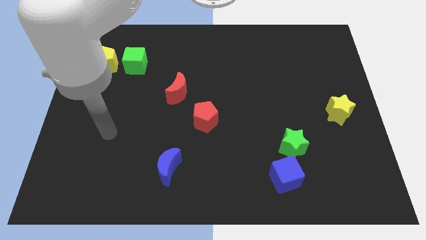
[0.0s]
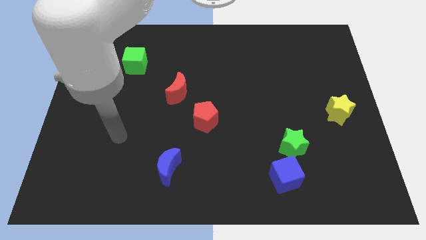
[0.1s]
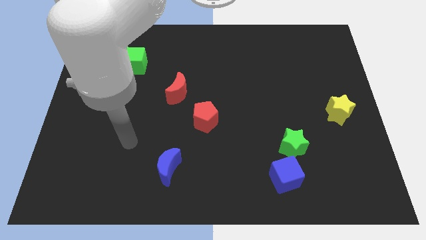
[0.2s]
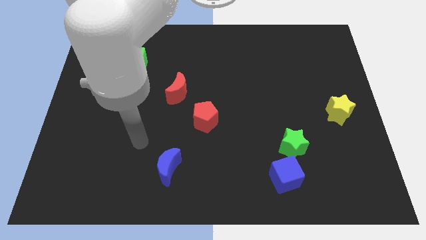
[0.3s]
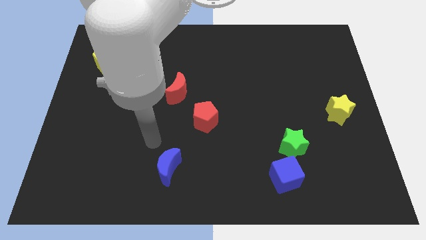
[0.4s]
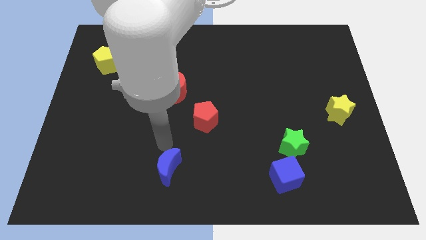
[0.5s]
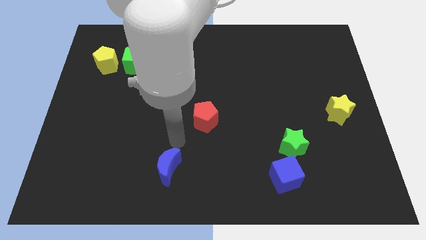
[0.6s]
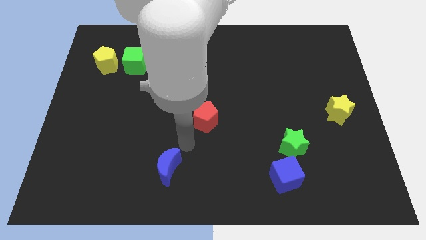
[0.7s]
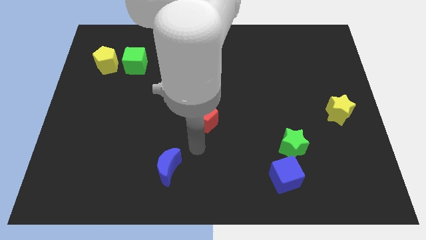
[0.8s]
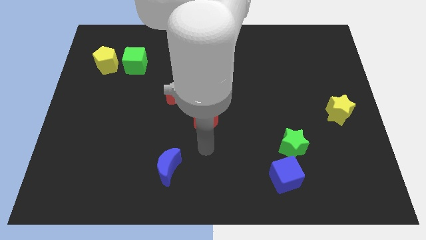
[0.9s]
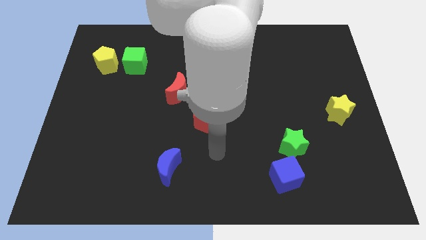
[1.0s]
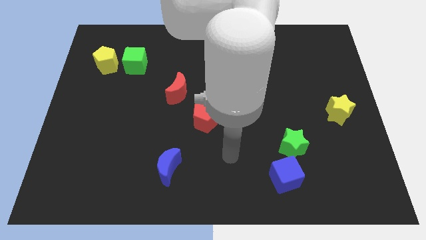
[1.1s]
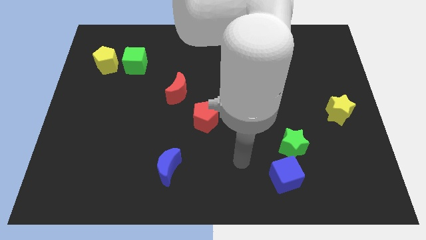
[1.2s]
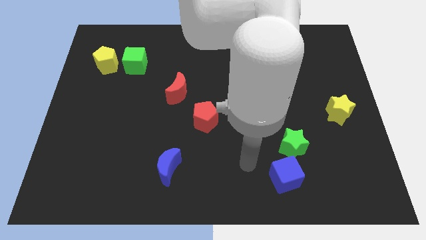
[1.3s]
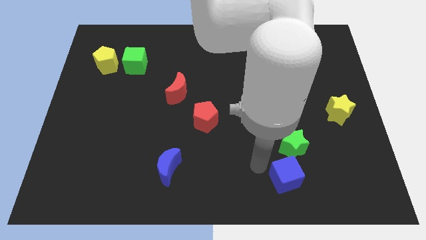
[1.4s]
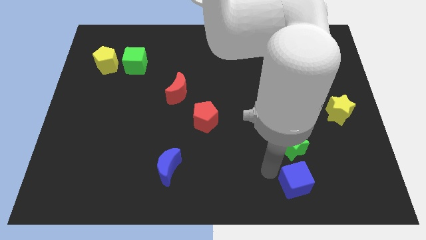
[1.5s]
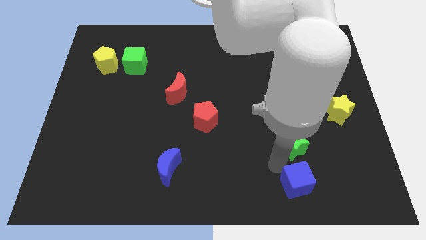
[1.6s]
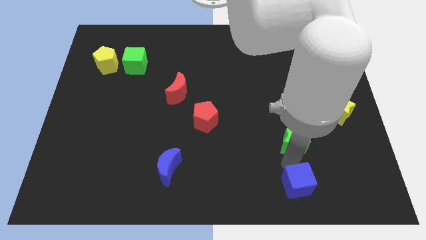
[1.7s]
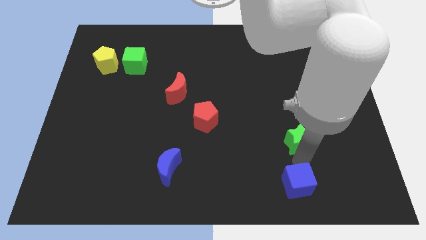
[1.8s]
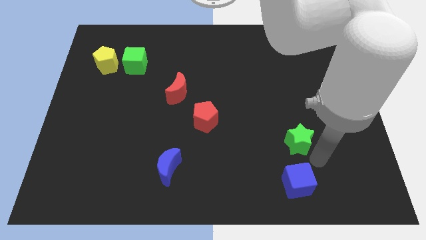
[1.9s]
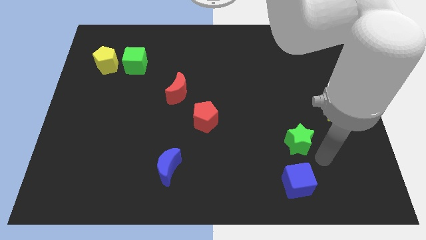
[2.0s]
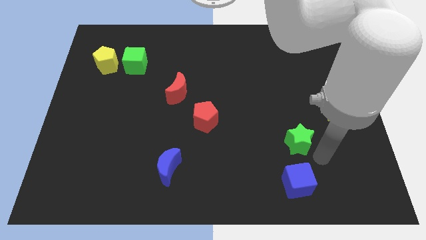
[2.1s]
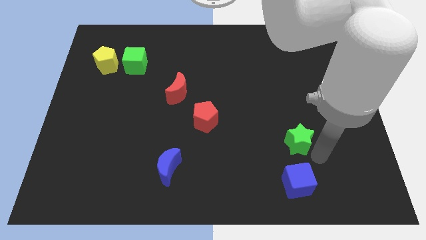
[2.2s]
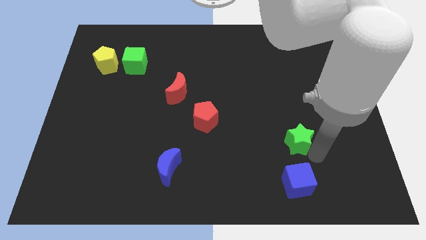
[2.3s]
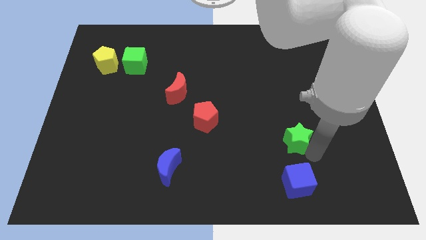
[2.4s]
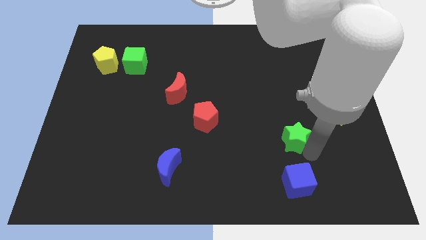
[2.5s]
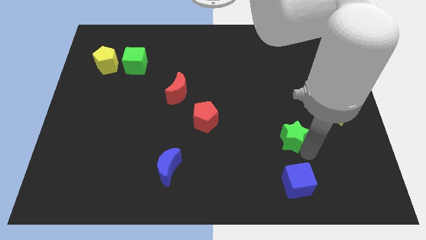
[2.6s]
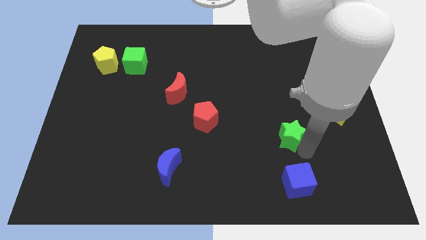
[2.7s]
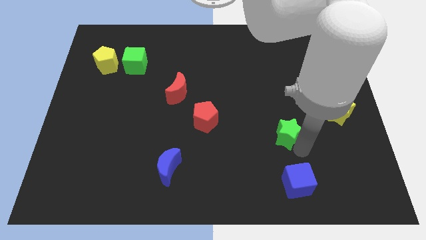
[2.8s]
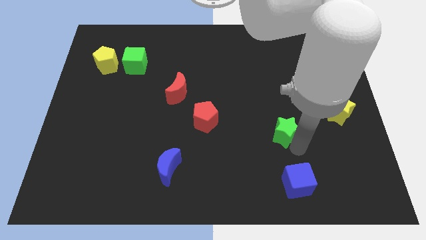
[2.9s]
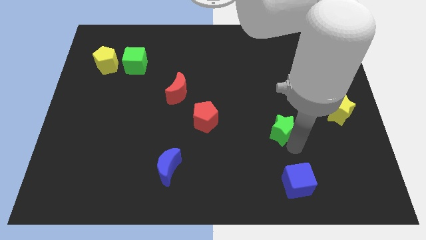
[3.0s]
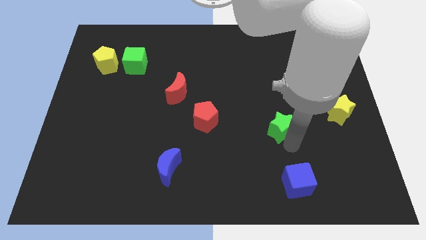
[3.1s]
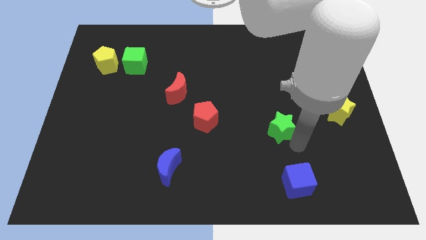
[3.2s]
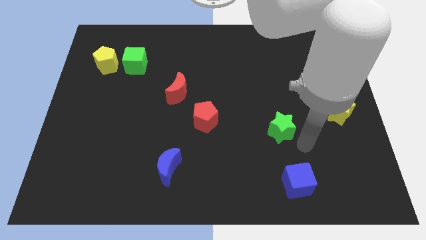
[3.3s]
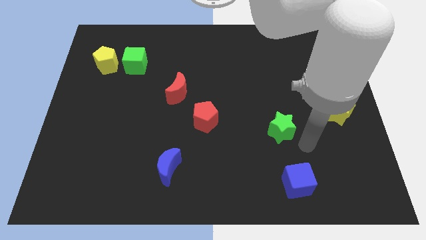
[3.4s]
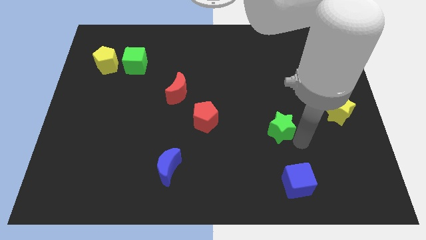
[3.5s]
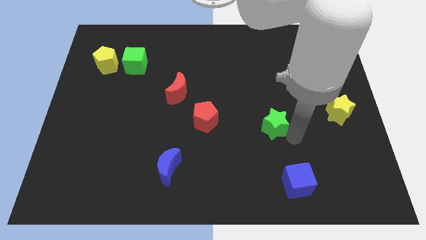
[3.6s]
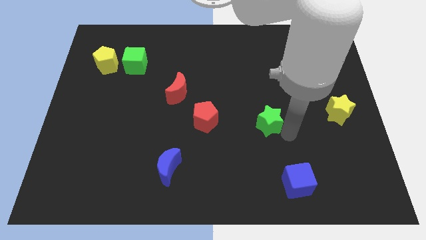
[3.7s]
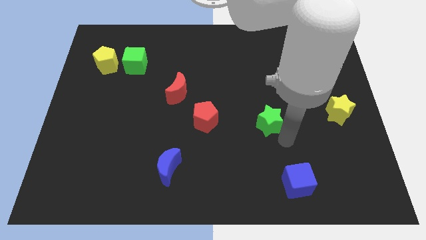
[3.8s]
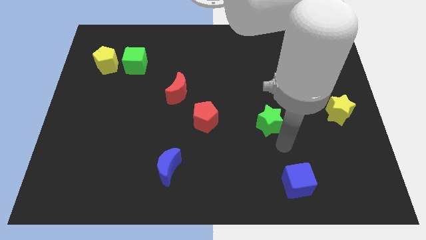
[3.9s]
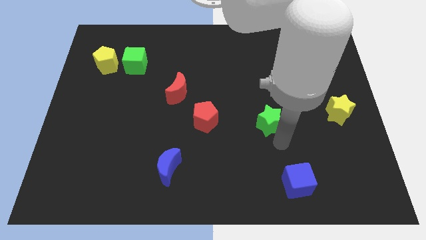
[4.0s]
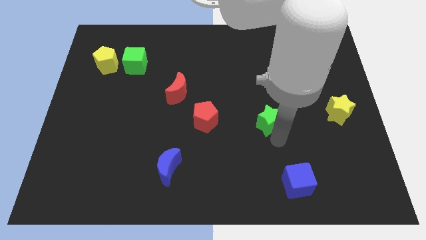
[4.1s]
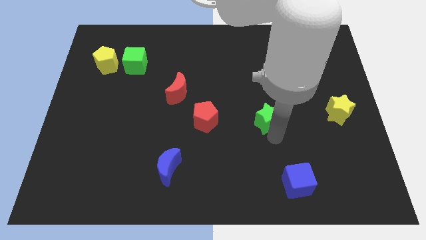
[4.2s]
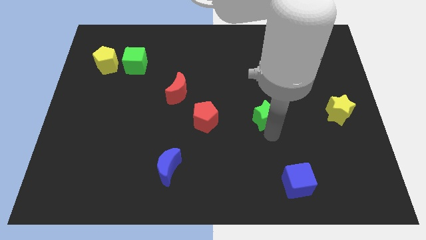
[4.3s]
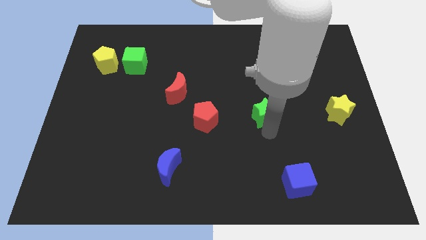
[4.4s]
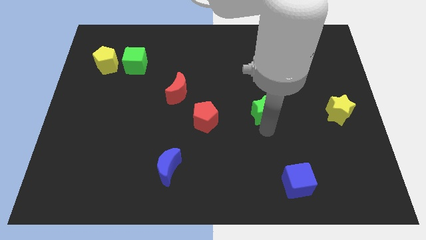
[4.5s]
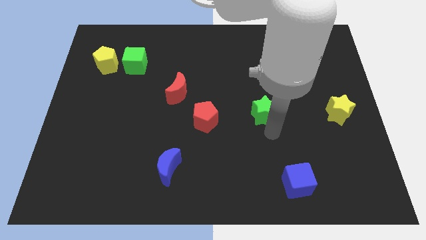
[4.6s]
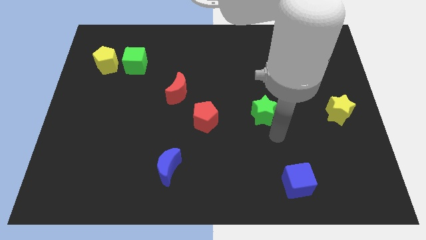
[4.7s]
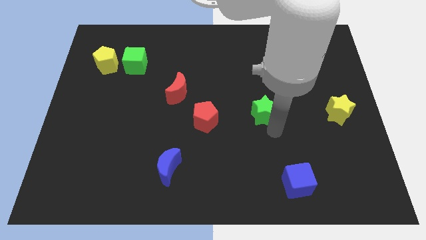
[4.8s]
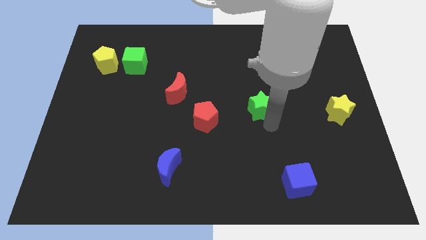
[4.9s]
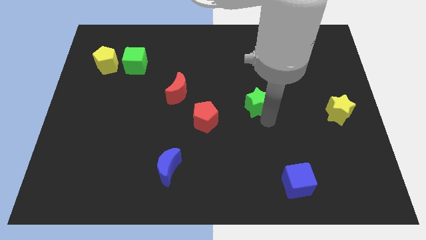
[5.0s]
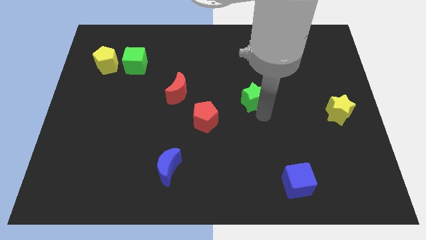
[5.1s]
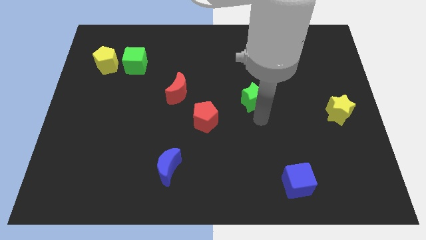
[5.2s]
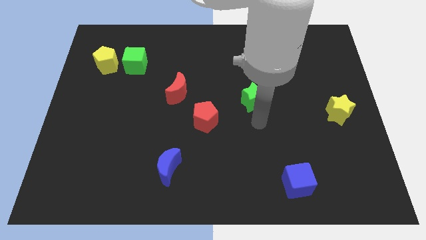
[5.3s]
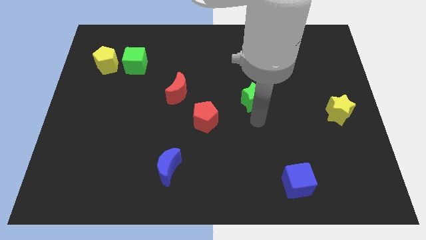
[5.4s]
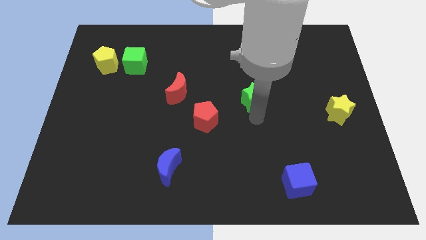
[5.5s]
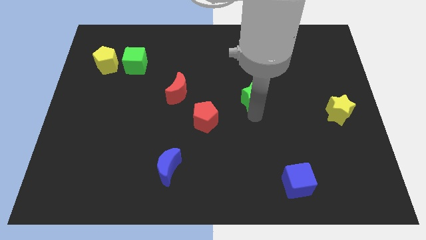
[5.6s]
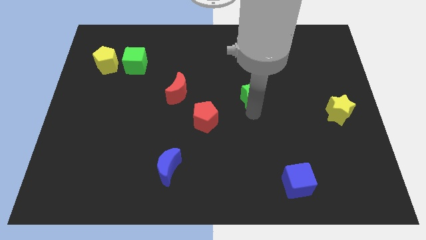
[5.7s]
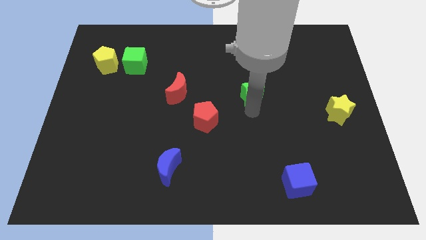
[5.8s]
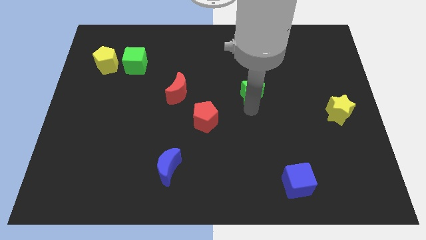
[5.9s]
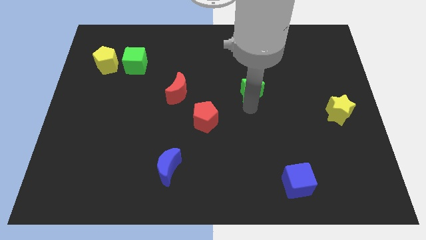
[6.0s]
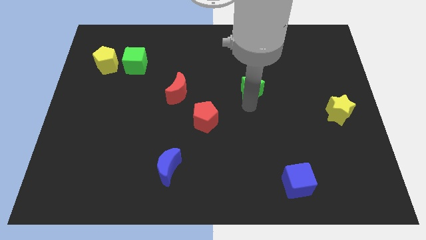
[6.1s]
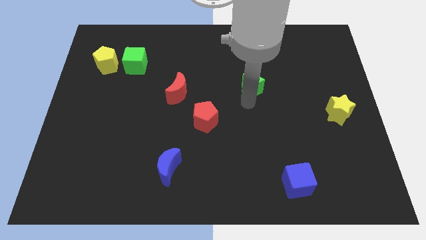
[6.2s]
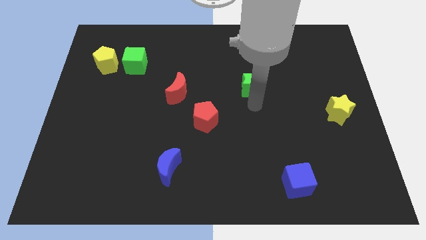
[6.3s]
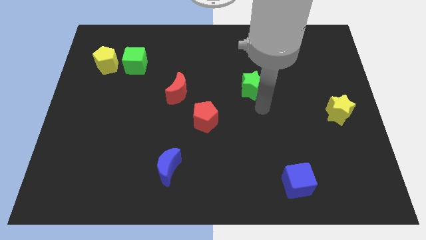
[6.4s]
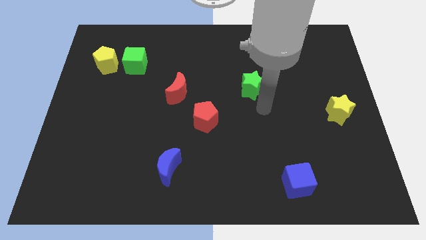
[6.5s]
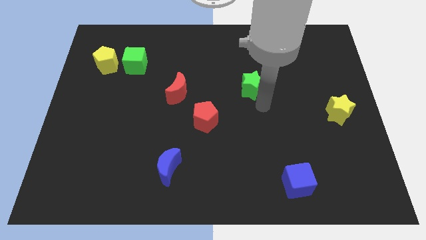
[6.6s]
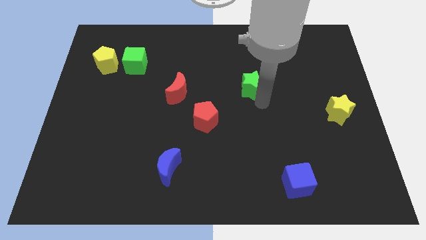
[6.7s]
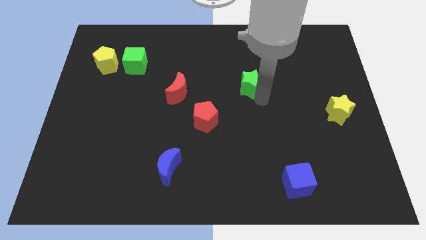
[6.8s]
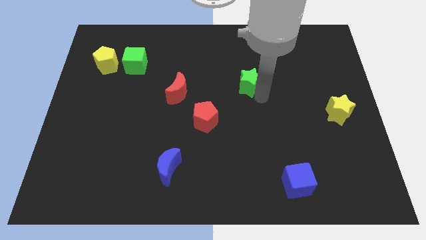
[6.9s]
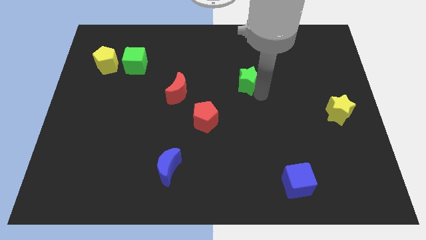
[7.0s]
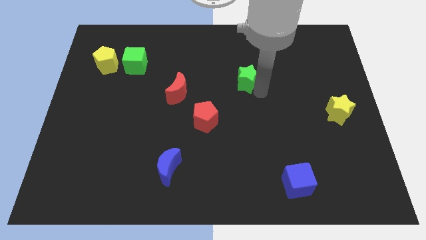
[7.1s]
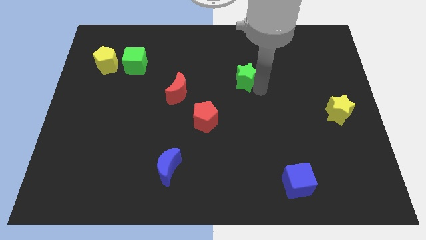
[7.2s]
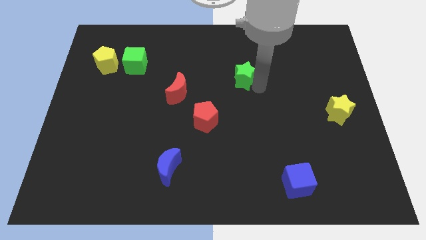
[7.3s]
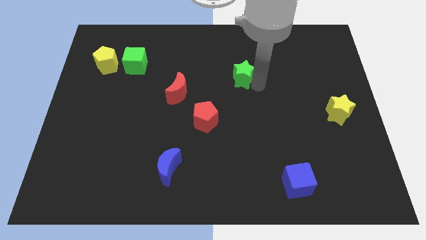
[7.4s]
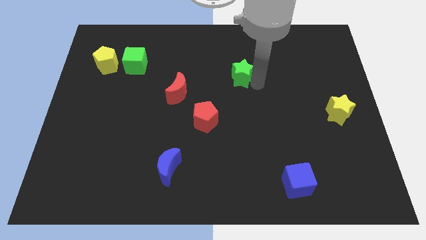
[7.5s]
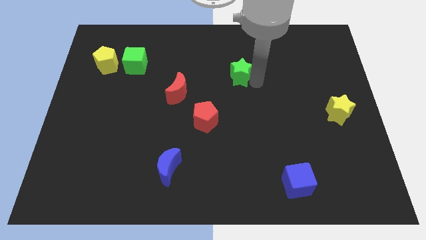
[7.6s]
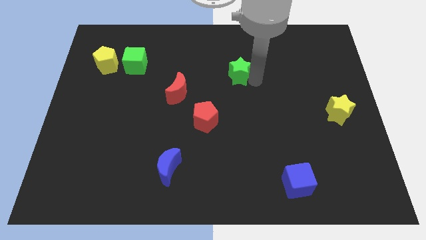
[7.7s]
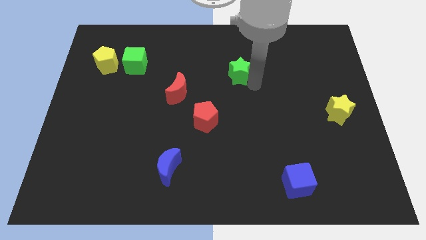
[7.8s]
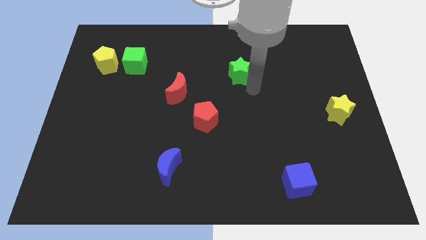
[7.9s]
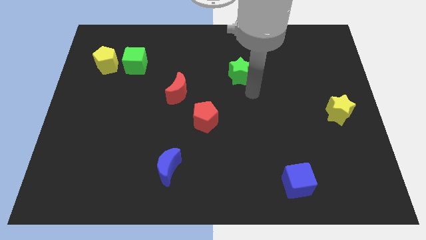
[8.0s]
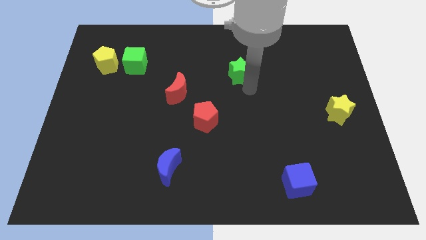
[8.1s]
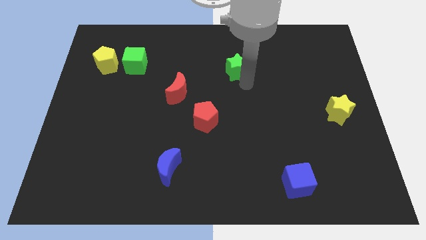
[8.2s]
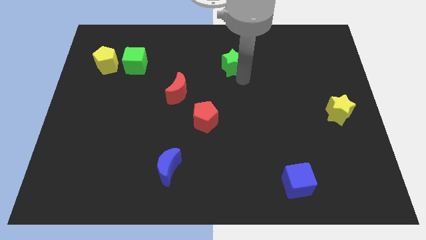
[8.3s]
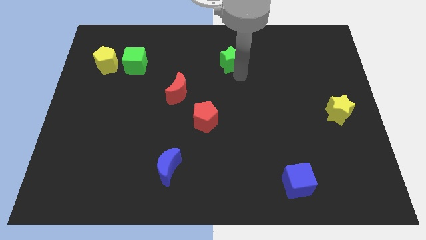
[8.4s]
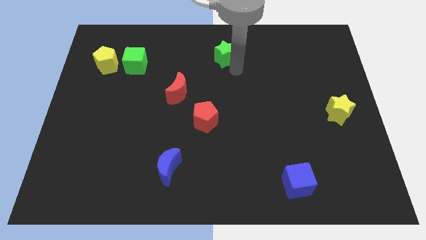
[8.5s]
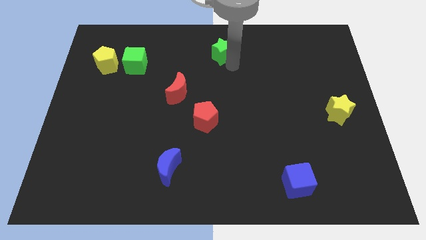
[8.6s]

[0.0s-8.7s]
push the green star to the towards your base
